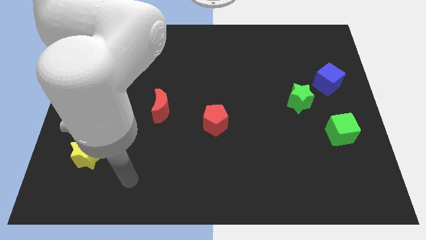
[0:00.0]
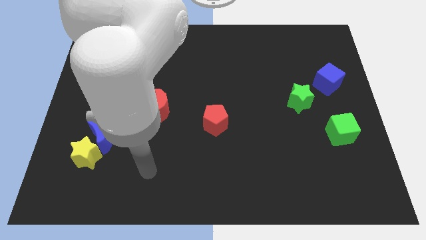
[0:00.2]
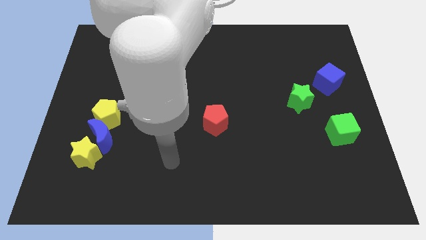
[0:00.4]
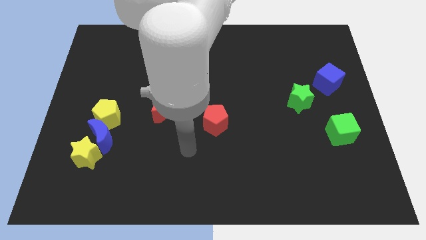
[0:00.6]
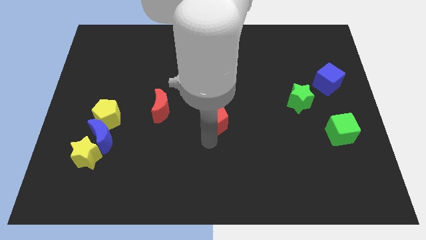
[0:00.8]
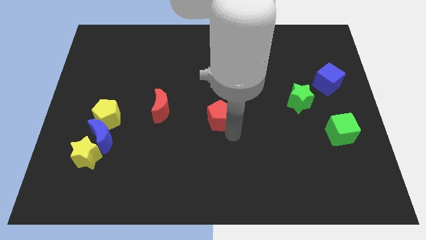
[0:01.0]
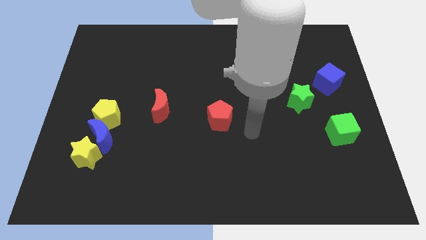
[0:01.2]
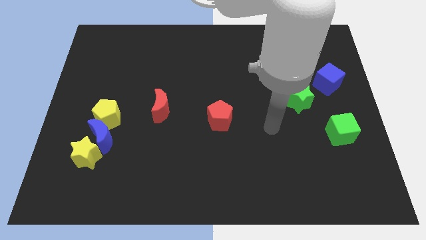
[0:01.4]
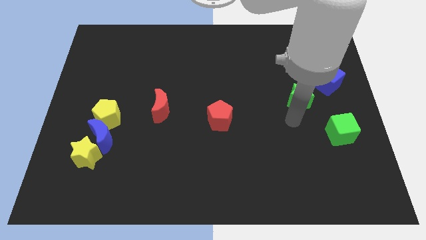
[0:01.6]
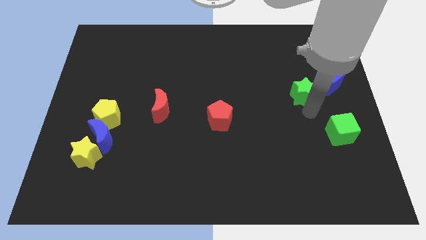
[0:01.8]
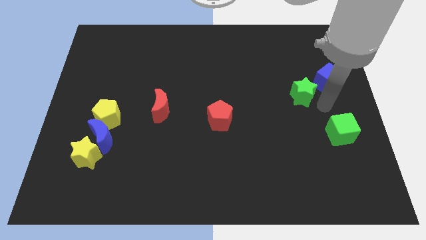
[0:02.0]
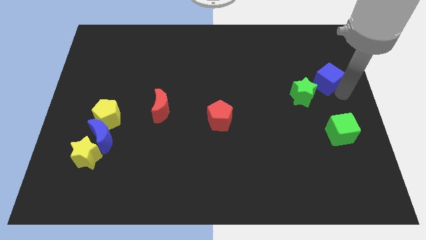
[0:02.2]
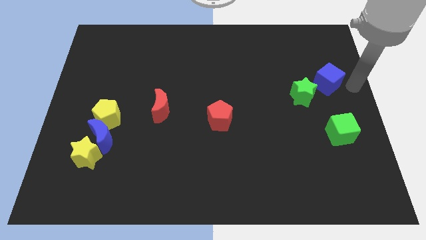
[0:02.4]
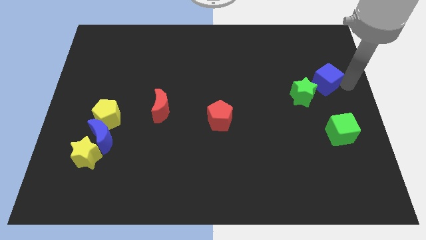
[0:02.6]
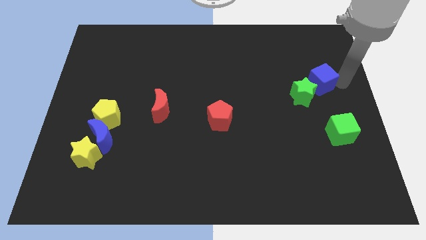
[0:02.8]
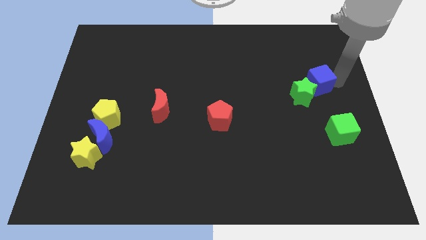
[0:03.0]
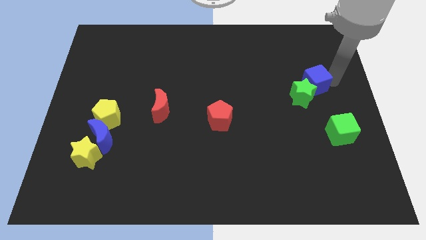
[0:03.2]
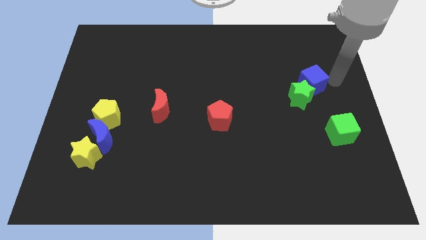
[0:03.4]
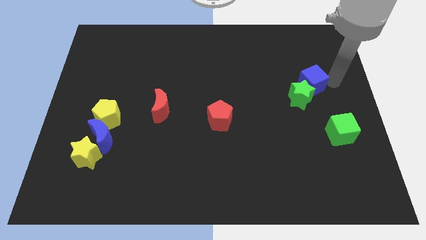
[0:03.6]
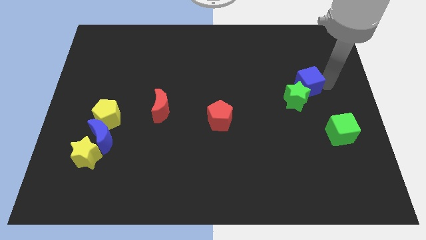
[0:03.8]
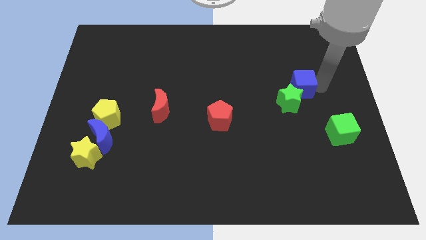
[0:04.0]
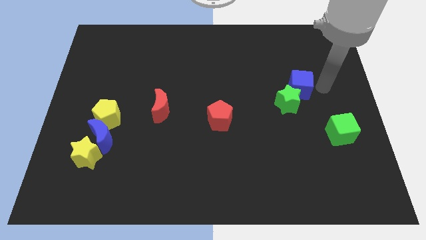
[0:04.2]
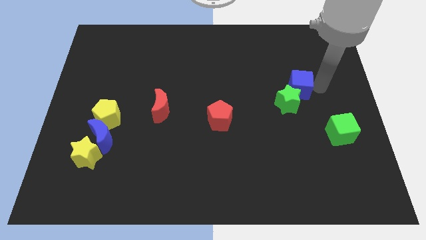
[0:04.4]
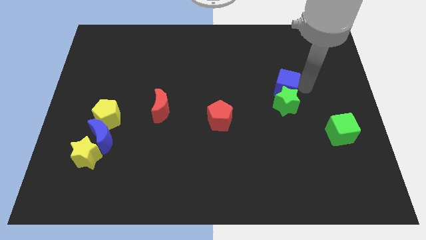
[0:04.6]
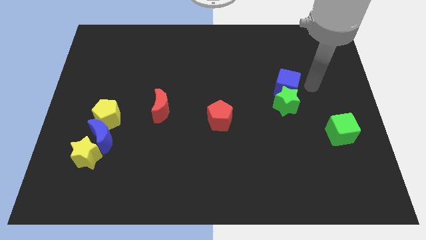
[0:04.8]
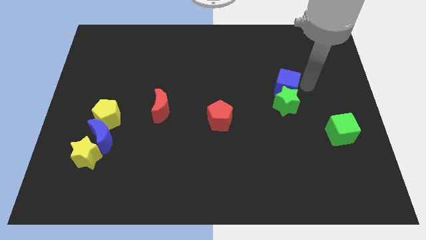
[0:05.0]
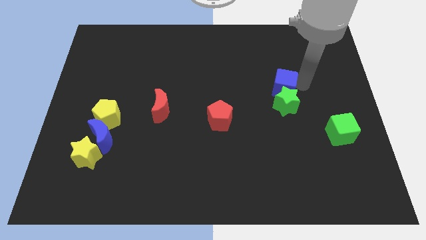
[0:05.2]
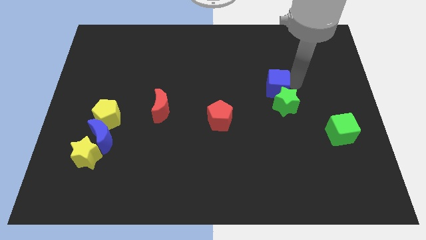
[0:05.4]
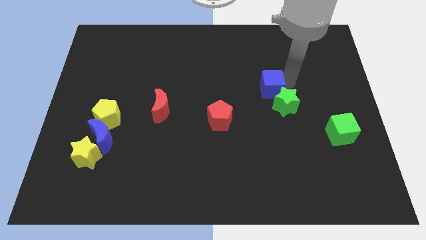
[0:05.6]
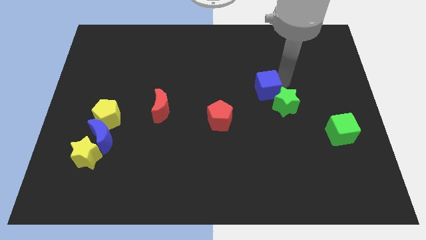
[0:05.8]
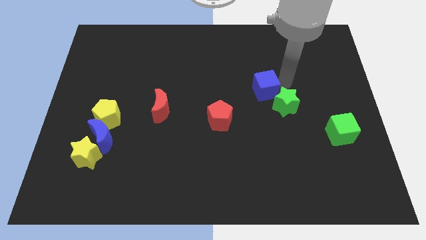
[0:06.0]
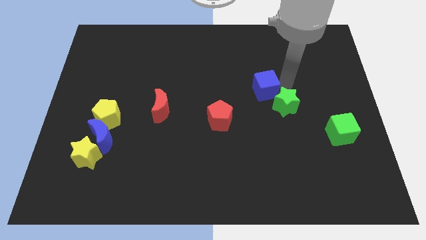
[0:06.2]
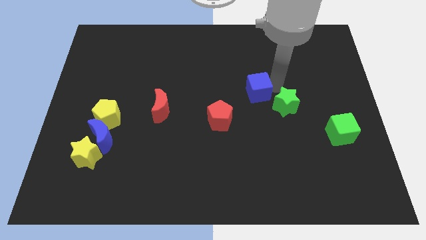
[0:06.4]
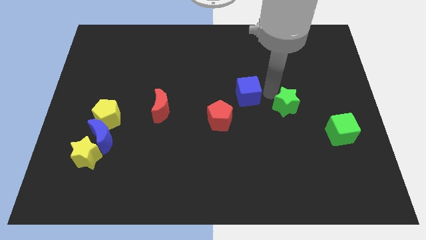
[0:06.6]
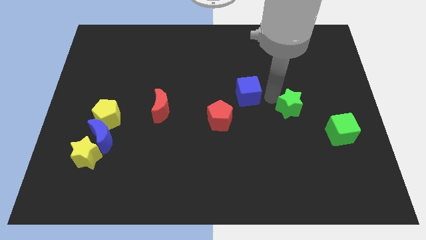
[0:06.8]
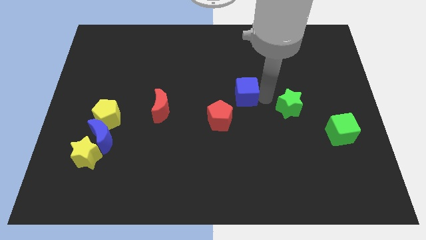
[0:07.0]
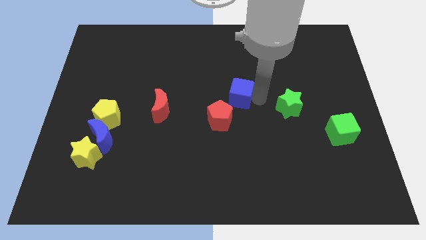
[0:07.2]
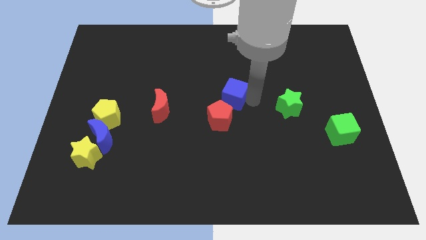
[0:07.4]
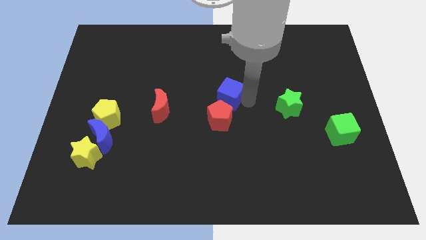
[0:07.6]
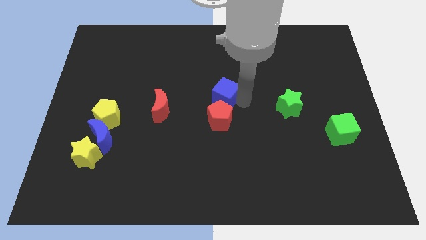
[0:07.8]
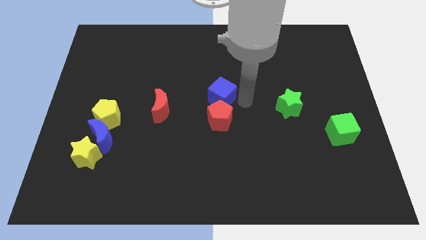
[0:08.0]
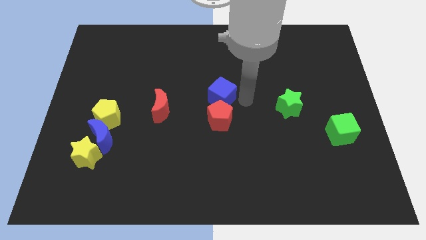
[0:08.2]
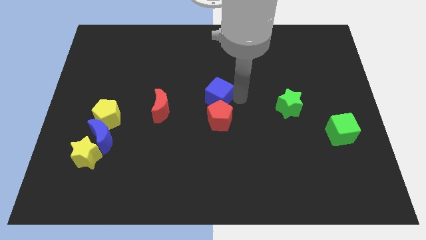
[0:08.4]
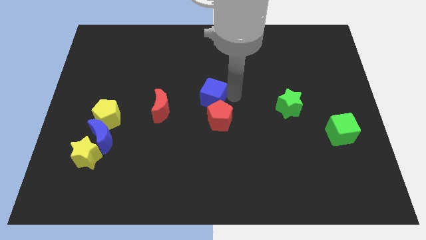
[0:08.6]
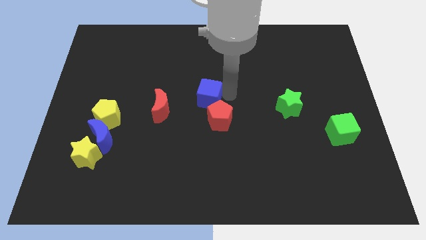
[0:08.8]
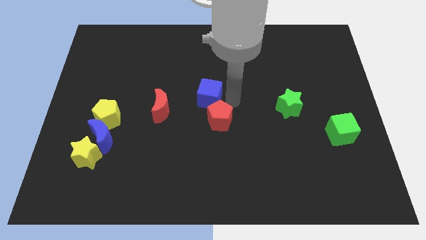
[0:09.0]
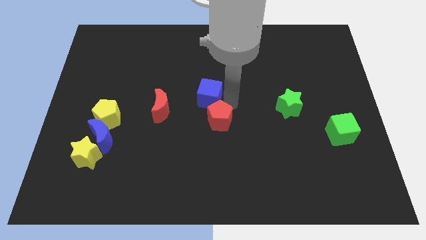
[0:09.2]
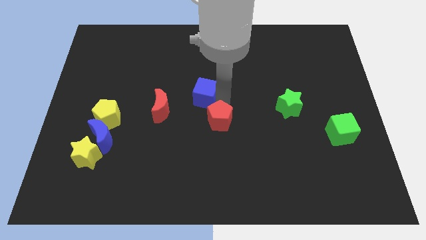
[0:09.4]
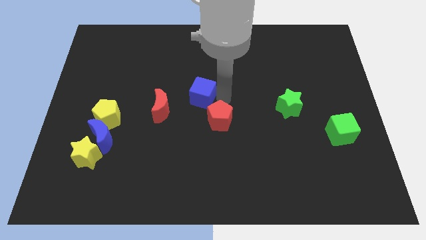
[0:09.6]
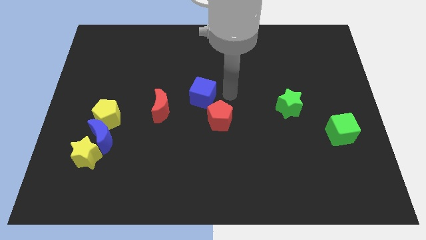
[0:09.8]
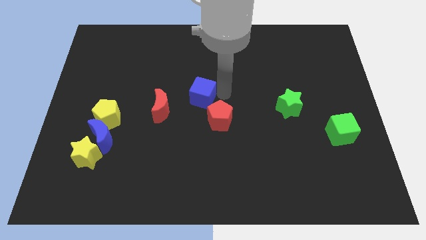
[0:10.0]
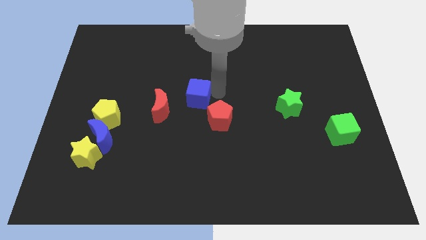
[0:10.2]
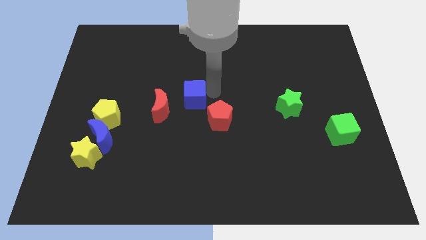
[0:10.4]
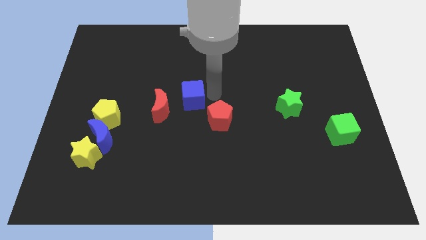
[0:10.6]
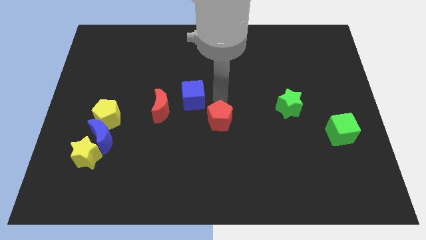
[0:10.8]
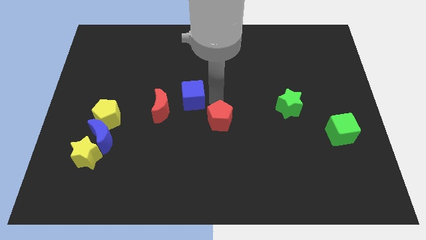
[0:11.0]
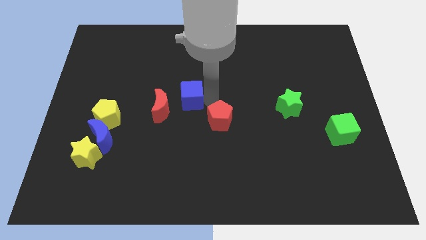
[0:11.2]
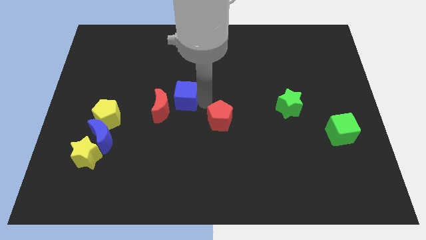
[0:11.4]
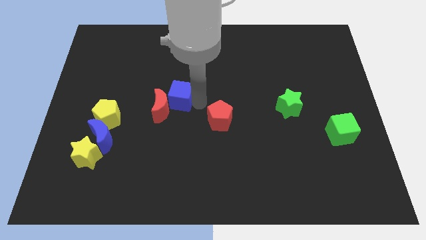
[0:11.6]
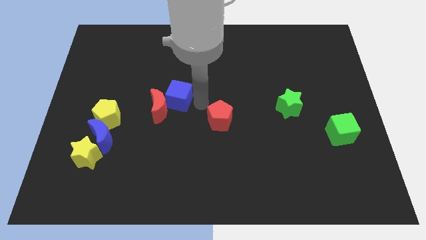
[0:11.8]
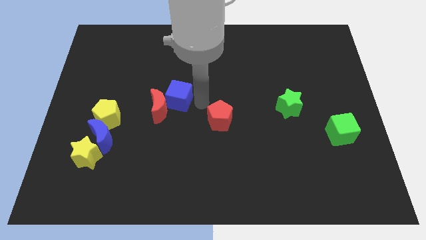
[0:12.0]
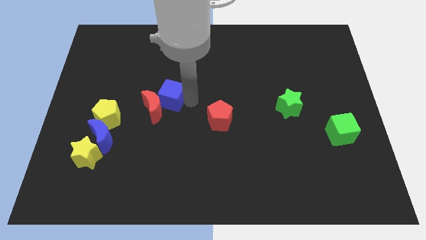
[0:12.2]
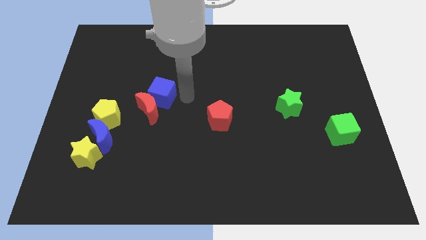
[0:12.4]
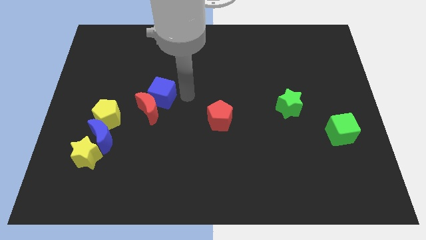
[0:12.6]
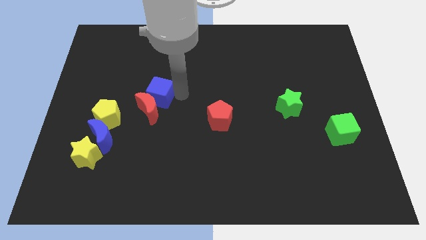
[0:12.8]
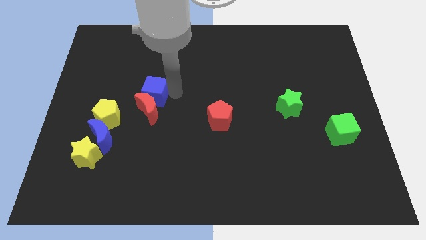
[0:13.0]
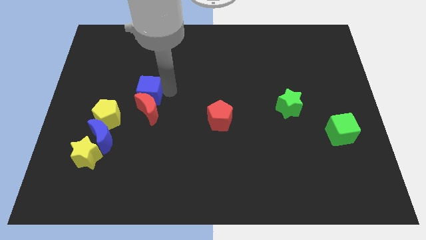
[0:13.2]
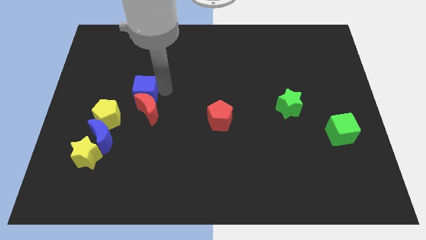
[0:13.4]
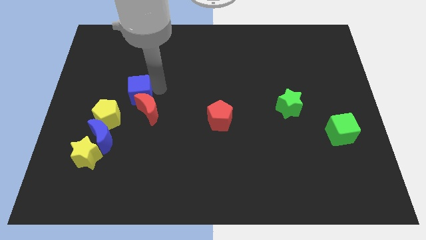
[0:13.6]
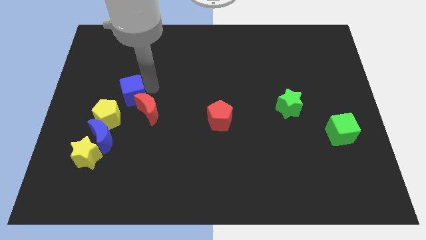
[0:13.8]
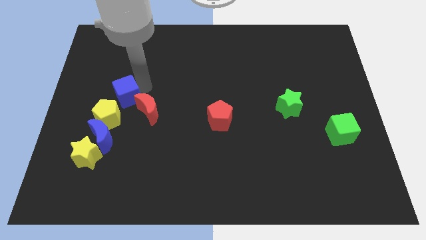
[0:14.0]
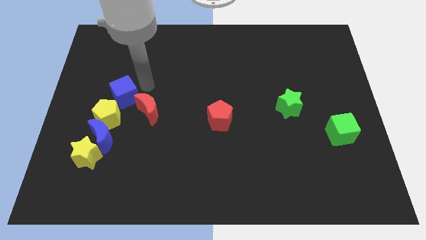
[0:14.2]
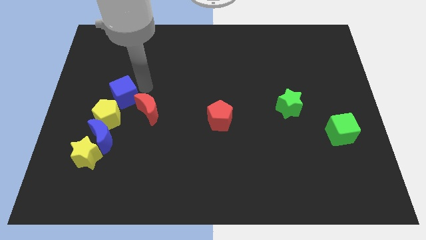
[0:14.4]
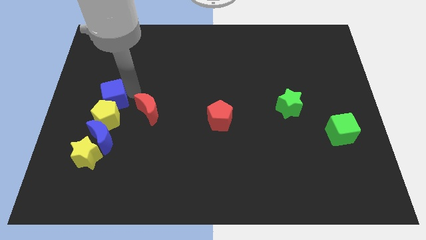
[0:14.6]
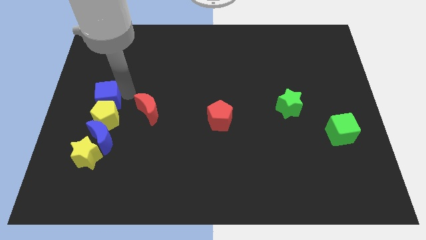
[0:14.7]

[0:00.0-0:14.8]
slide the blue cube to the center left
